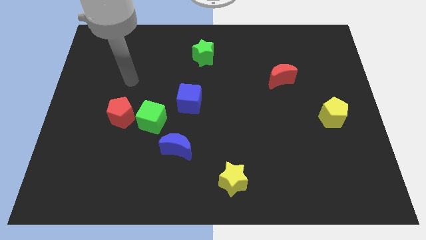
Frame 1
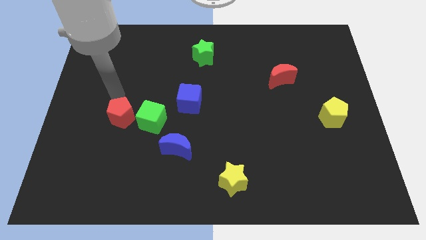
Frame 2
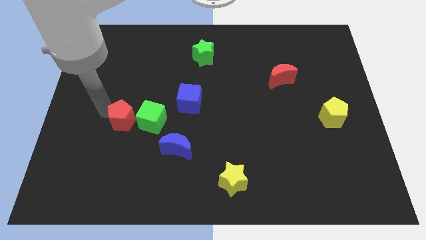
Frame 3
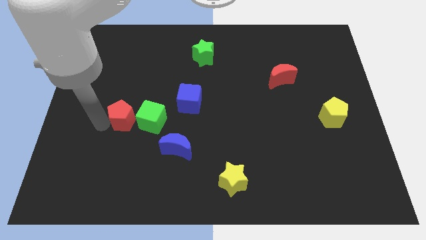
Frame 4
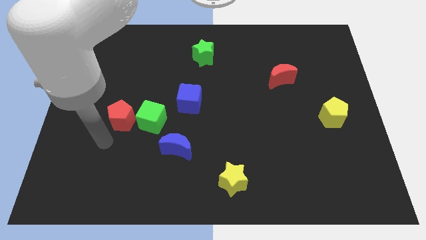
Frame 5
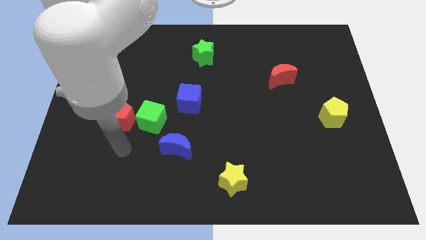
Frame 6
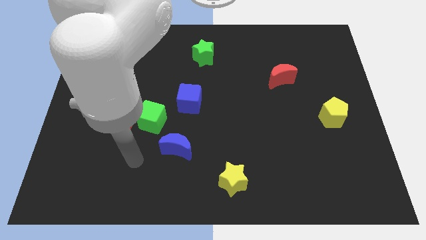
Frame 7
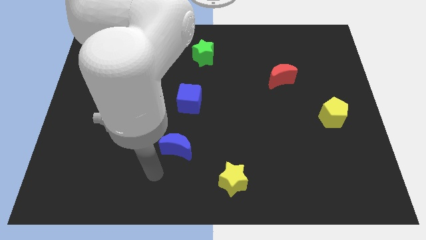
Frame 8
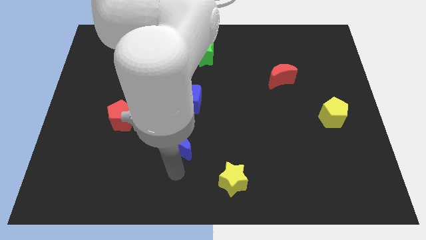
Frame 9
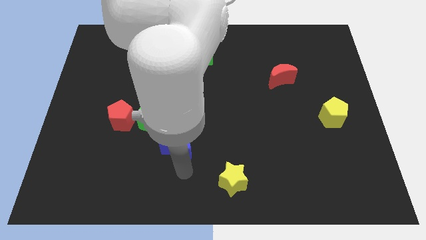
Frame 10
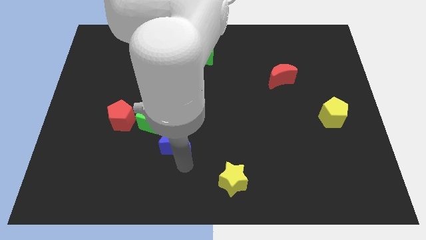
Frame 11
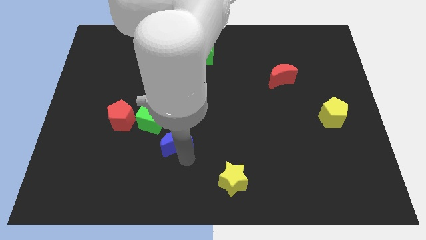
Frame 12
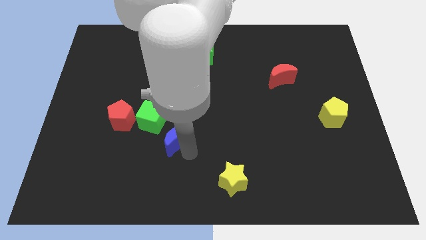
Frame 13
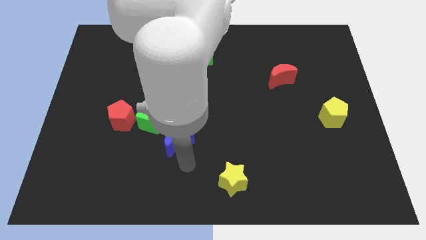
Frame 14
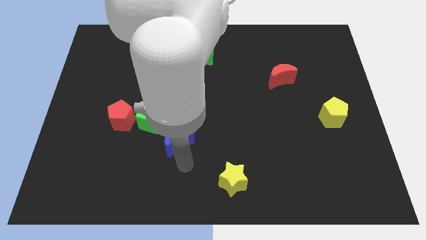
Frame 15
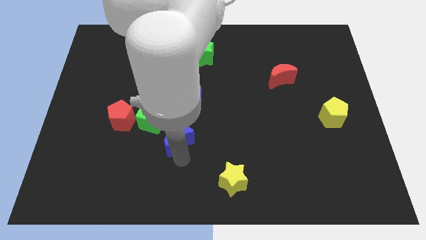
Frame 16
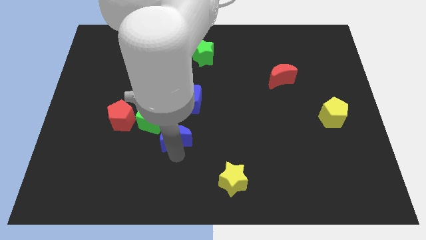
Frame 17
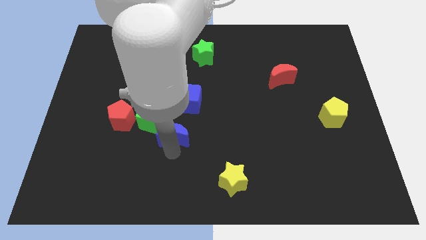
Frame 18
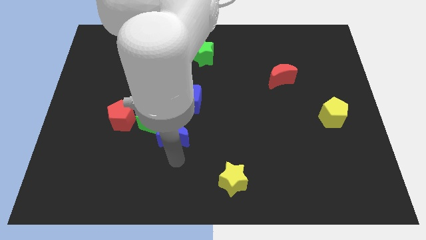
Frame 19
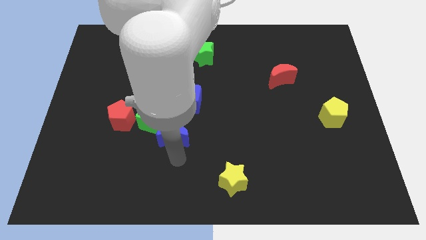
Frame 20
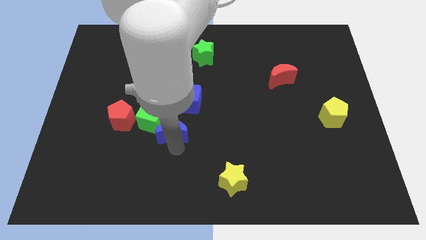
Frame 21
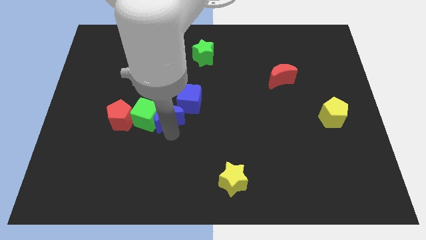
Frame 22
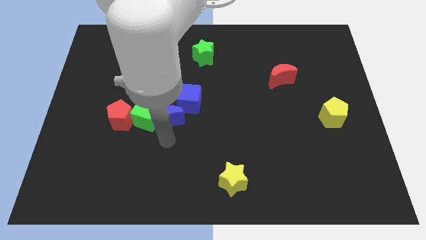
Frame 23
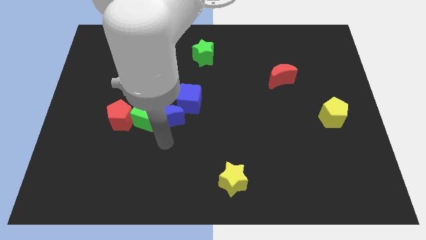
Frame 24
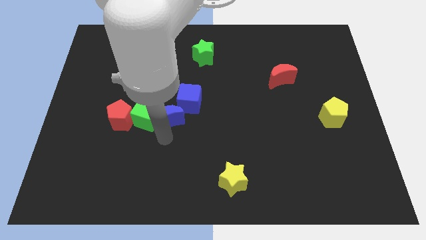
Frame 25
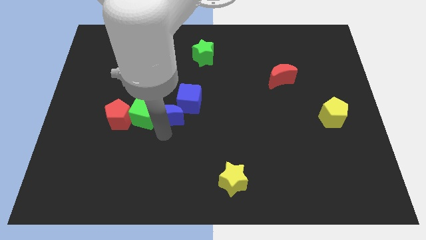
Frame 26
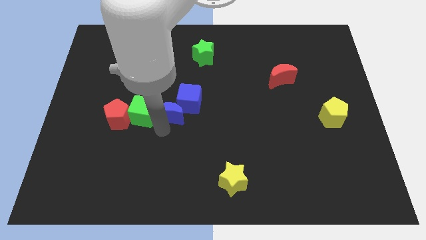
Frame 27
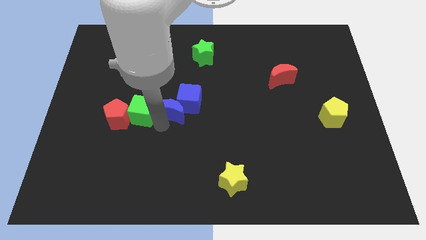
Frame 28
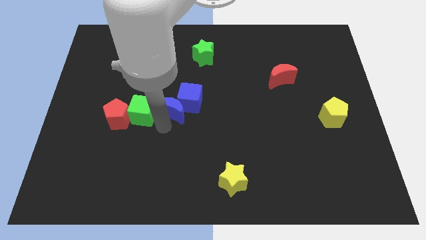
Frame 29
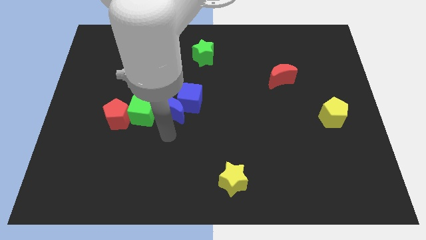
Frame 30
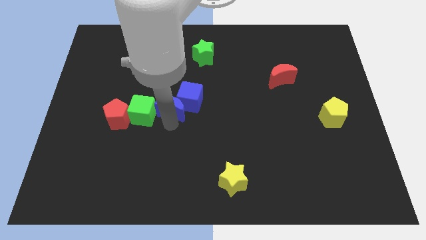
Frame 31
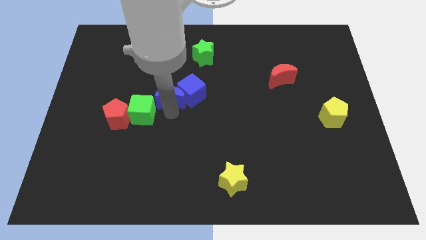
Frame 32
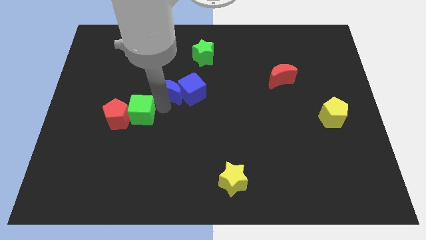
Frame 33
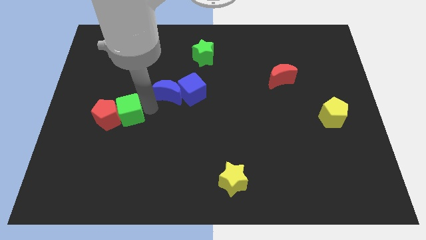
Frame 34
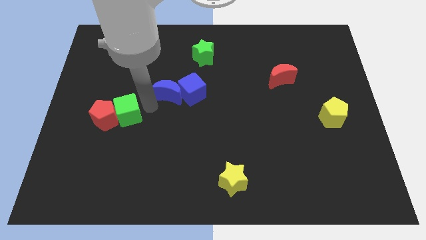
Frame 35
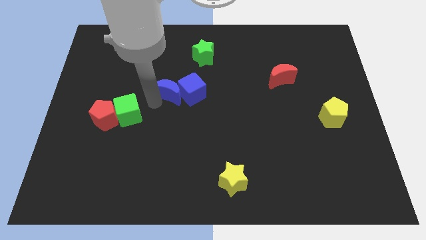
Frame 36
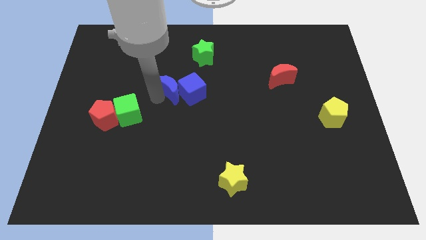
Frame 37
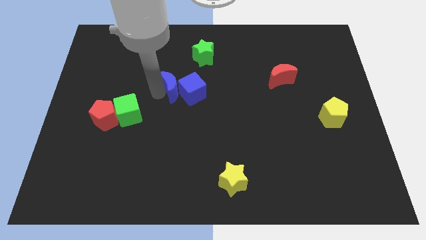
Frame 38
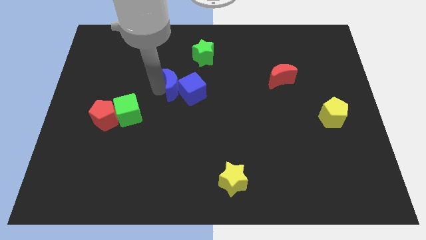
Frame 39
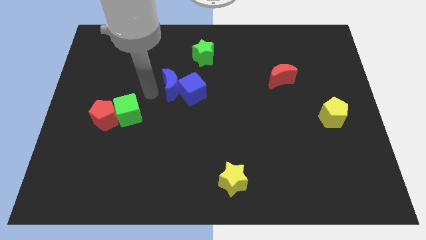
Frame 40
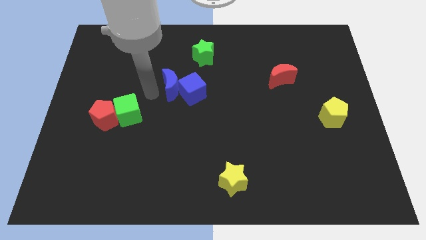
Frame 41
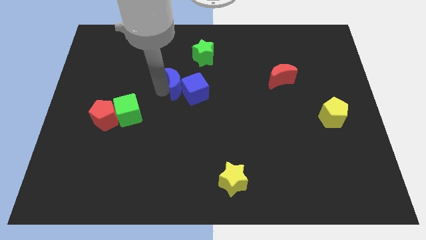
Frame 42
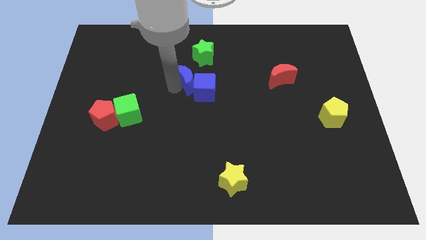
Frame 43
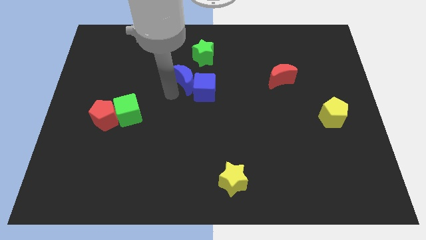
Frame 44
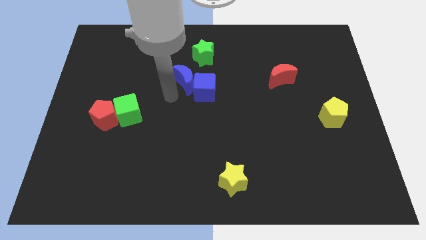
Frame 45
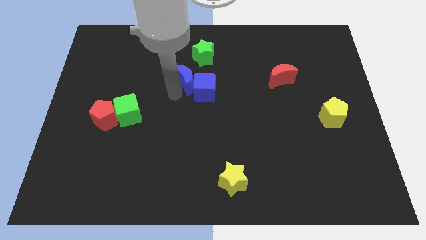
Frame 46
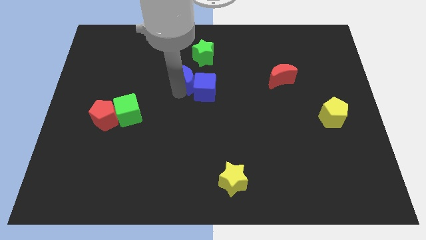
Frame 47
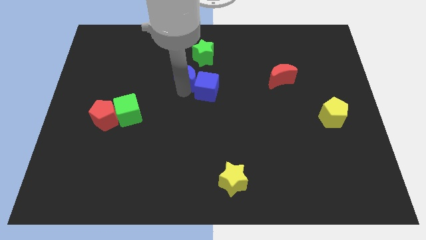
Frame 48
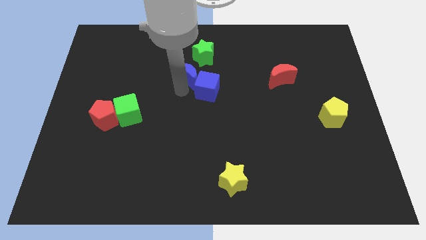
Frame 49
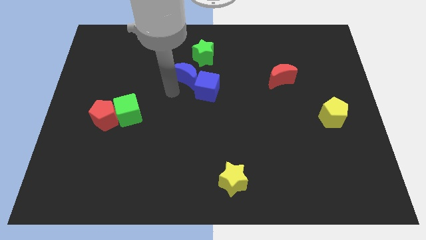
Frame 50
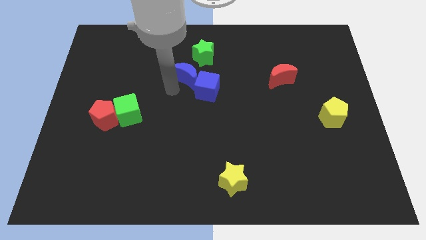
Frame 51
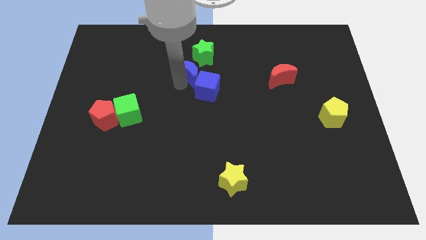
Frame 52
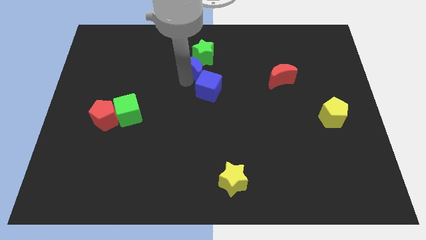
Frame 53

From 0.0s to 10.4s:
push the blue moon close to the green star

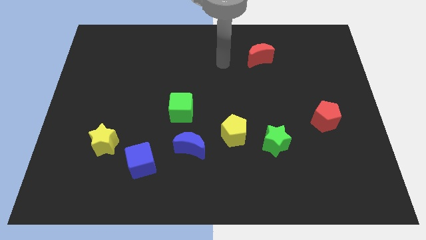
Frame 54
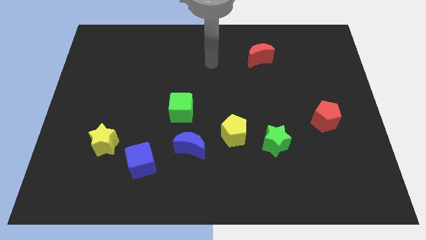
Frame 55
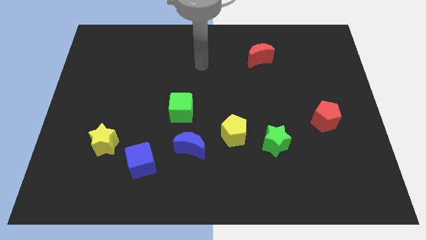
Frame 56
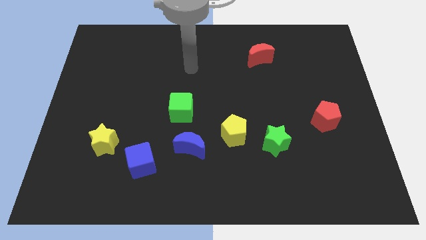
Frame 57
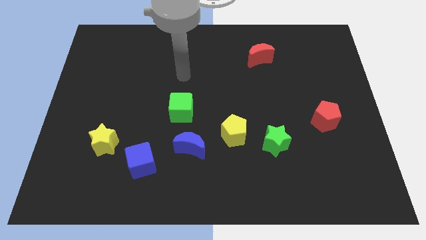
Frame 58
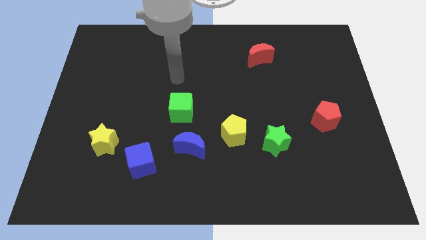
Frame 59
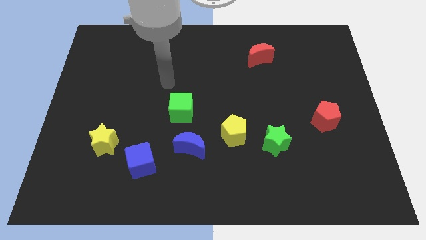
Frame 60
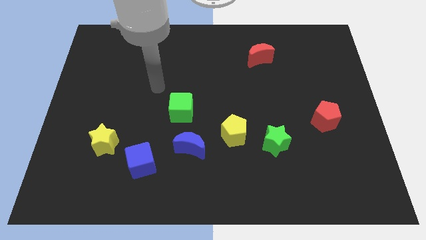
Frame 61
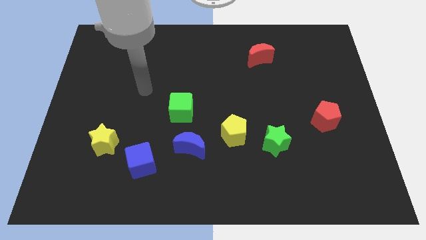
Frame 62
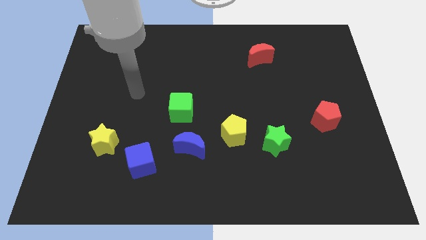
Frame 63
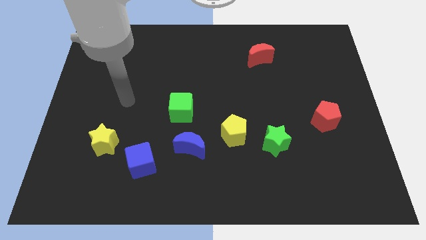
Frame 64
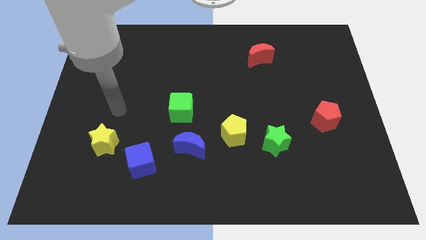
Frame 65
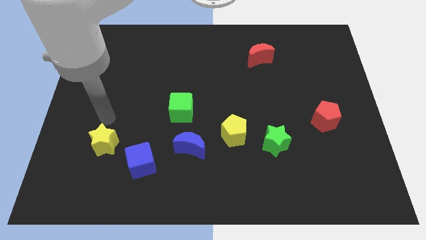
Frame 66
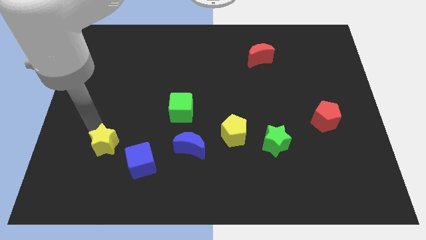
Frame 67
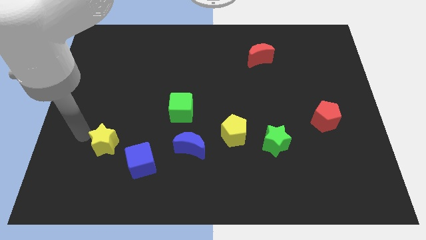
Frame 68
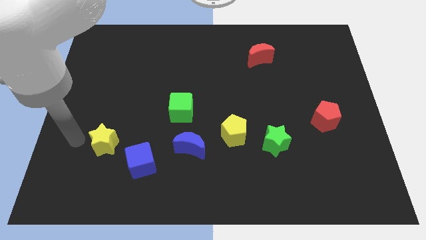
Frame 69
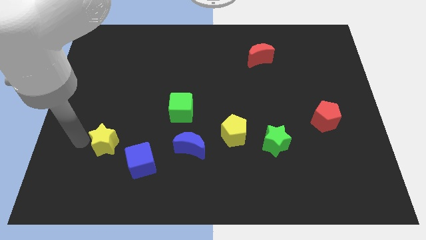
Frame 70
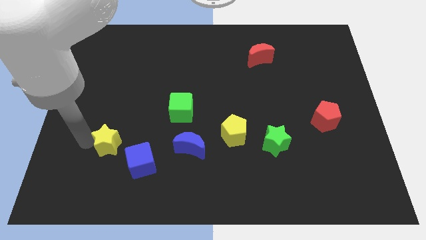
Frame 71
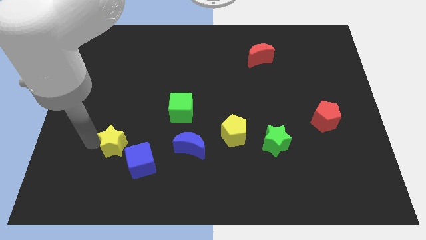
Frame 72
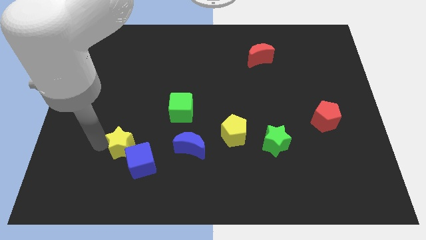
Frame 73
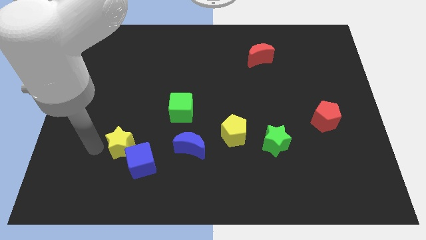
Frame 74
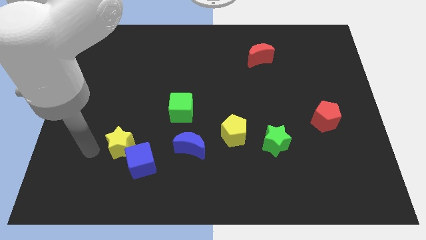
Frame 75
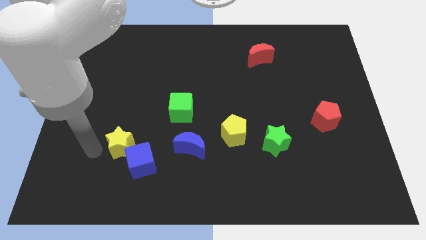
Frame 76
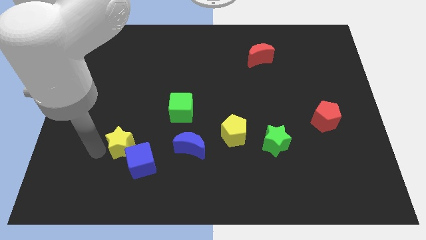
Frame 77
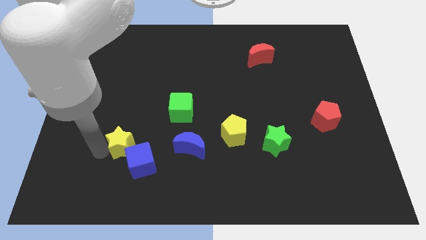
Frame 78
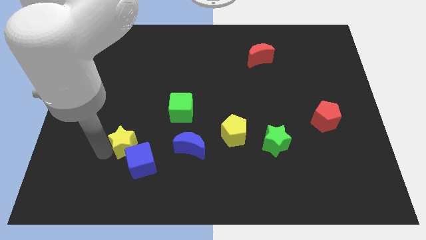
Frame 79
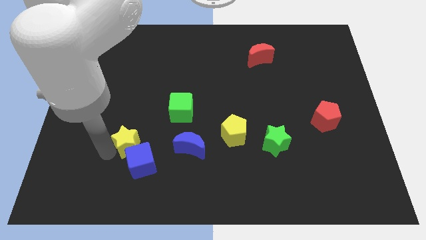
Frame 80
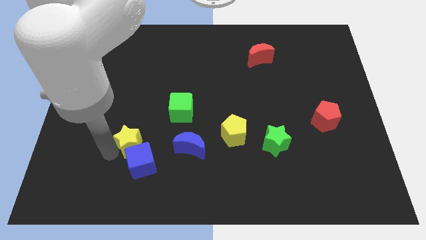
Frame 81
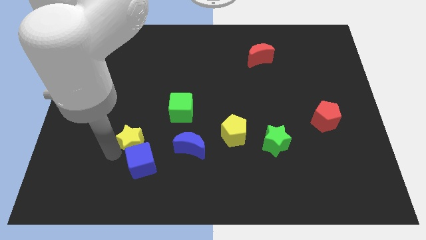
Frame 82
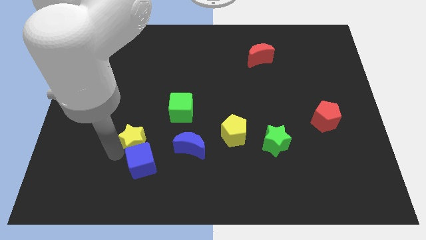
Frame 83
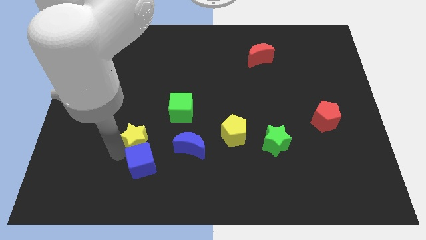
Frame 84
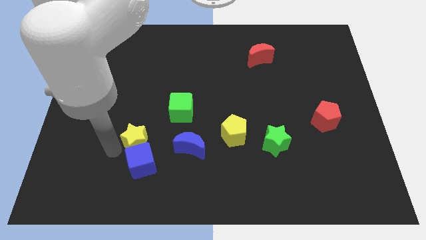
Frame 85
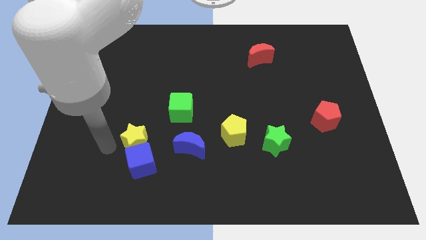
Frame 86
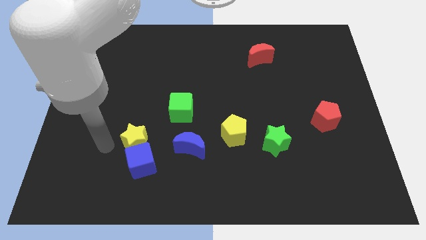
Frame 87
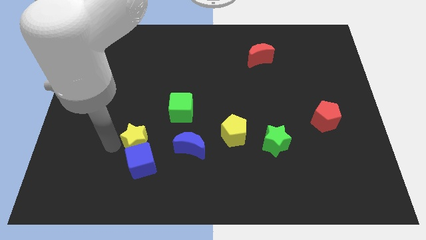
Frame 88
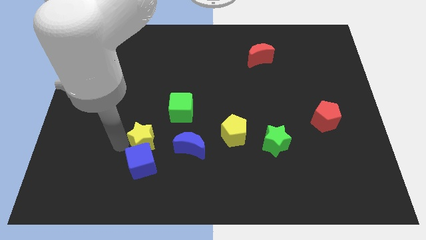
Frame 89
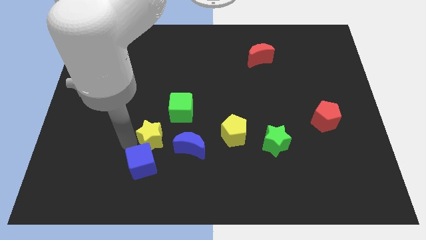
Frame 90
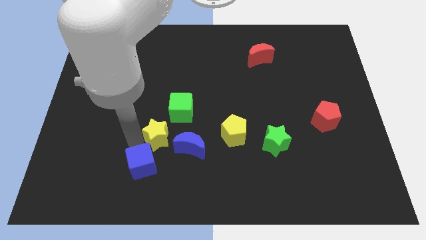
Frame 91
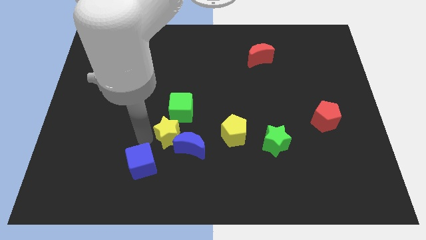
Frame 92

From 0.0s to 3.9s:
push the yellow star to the blue moon
